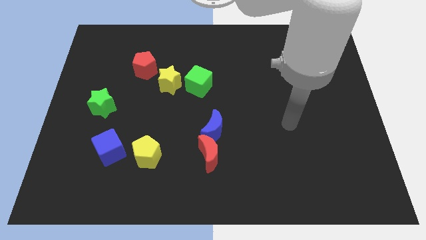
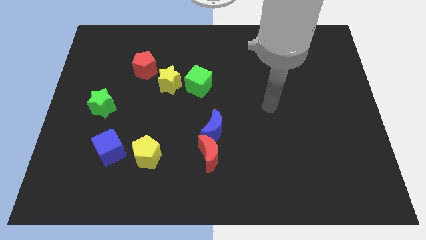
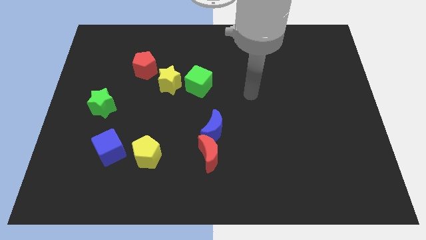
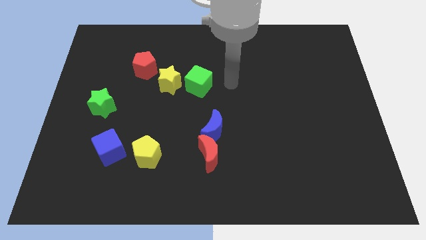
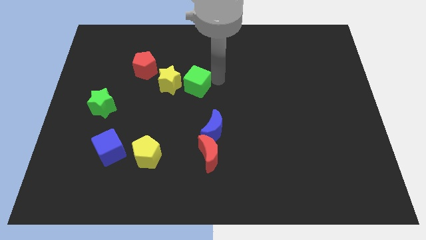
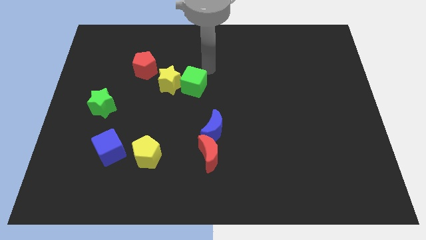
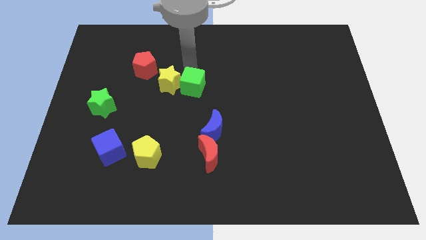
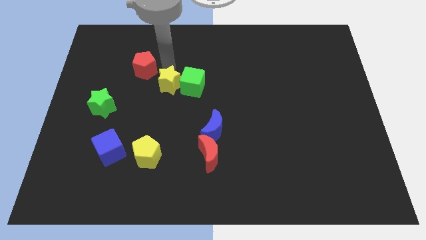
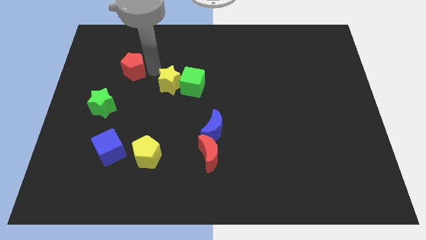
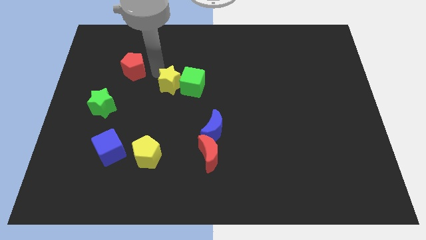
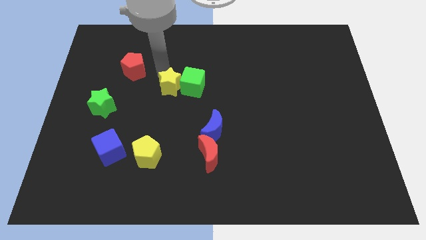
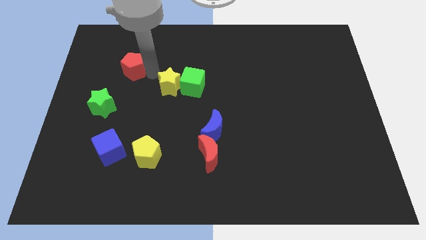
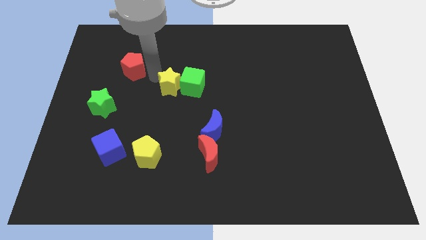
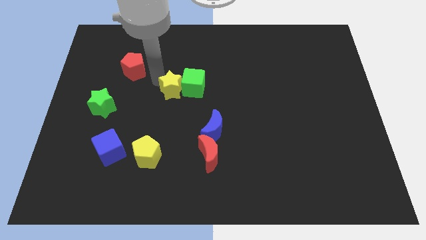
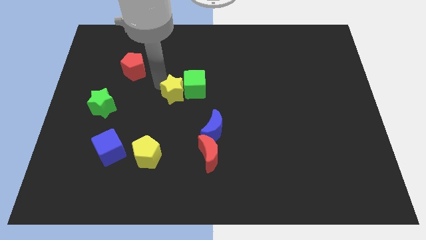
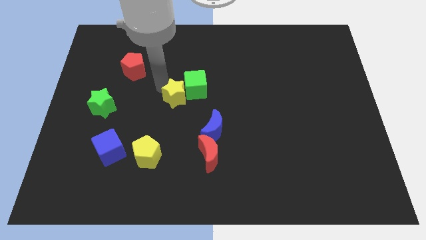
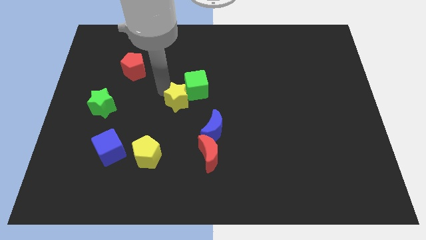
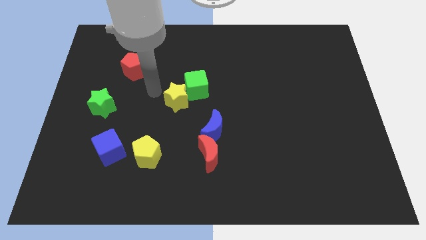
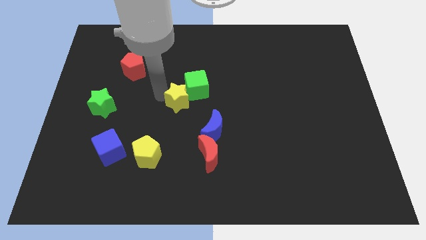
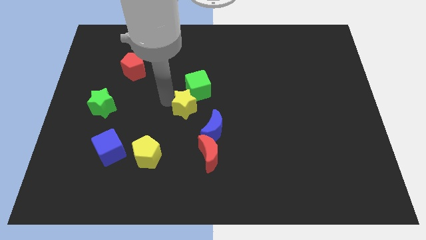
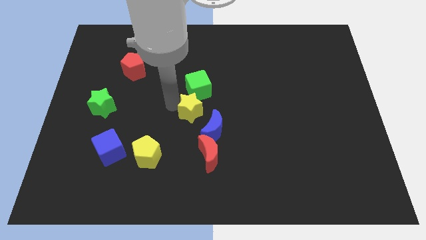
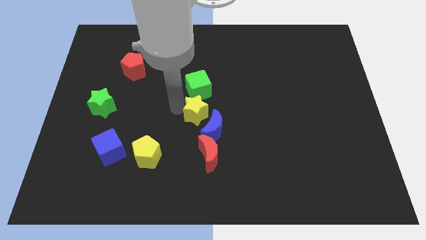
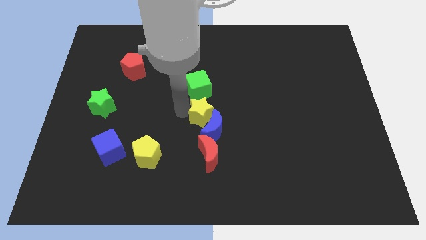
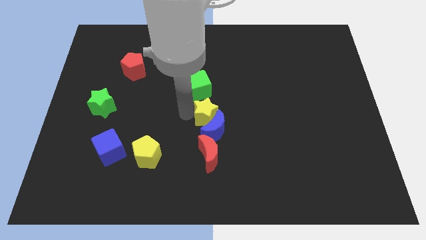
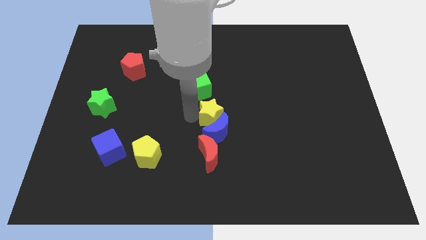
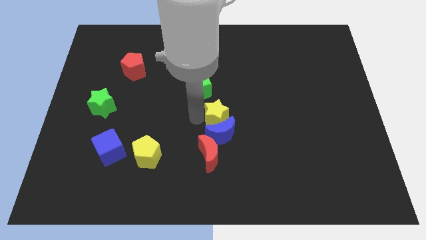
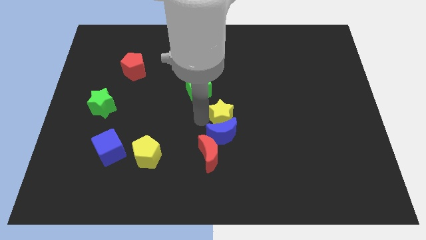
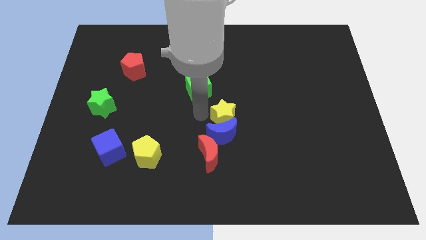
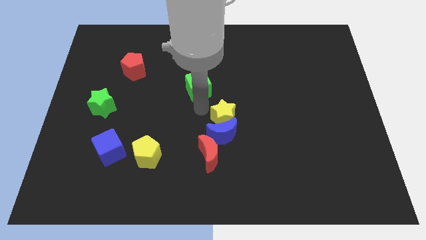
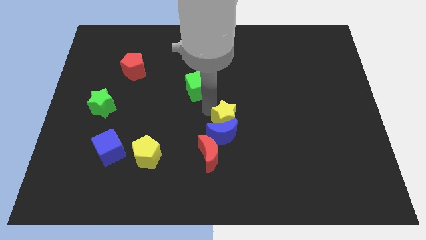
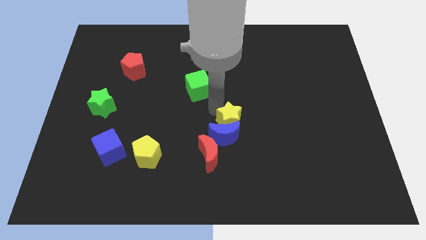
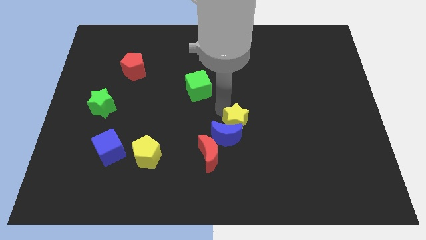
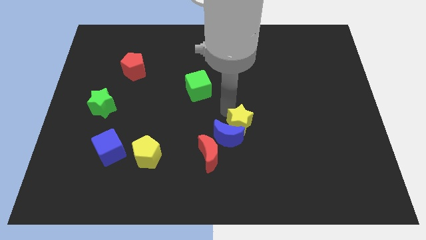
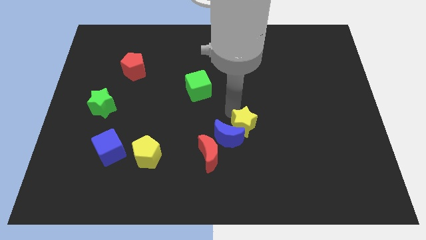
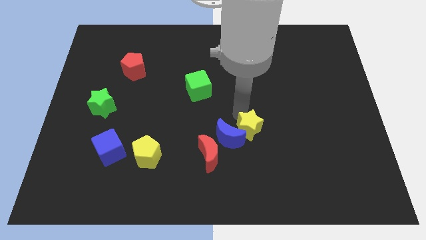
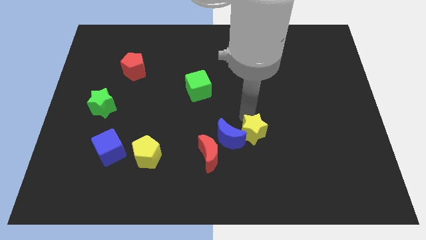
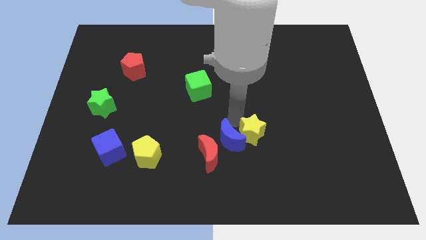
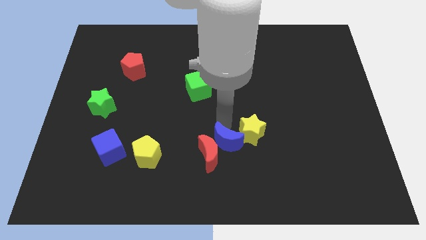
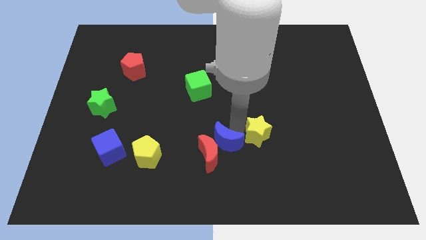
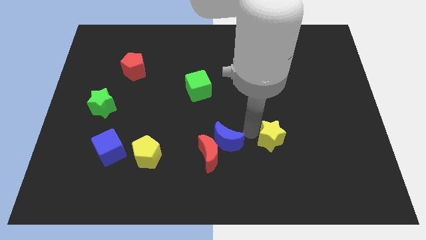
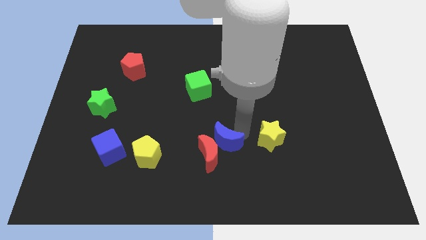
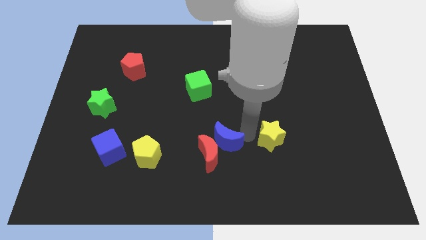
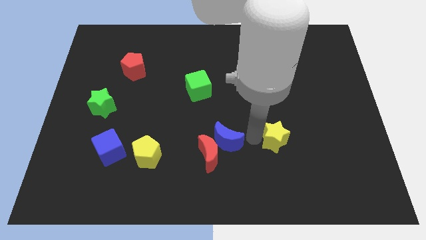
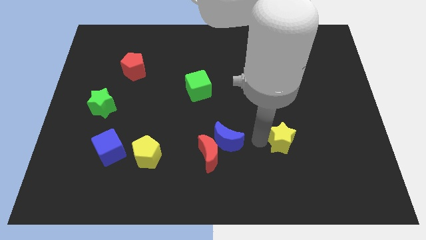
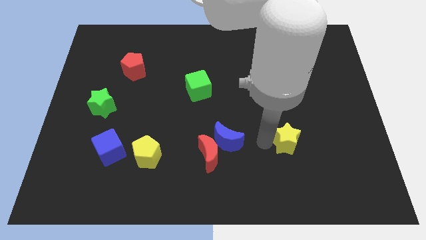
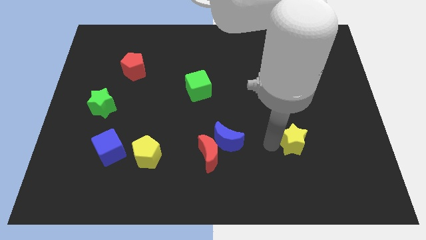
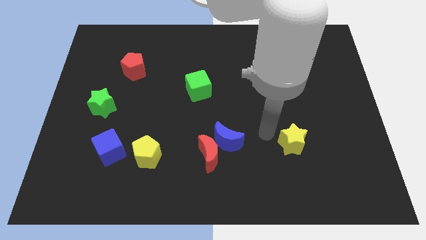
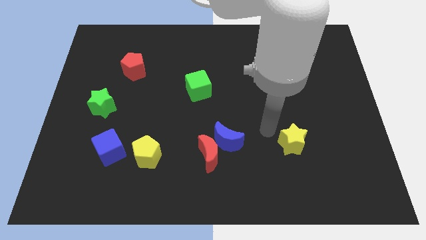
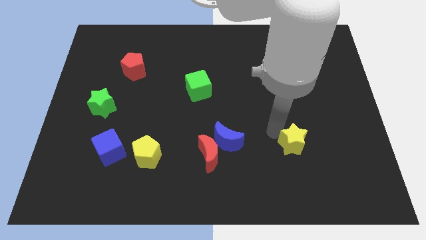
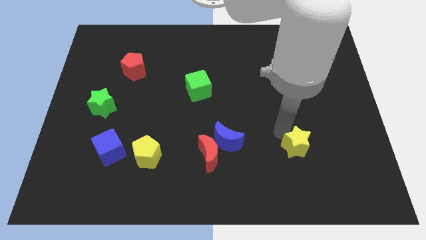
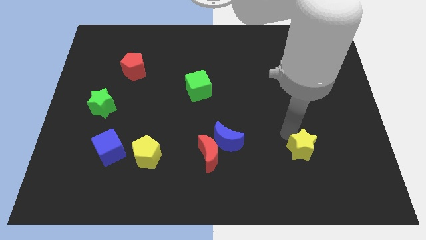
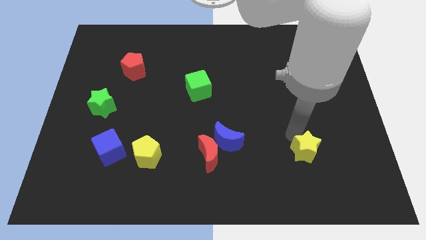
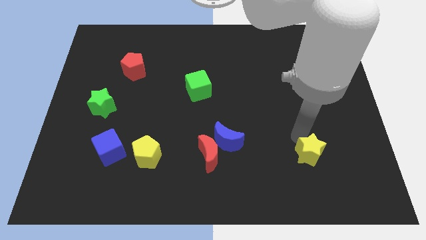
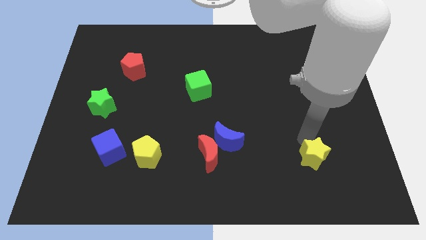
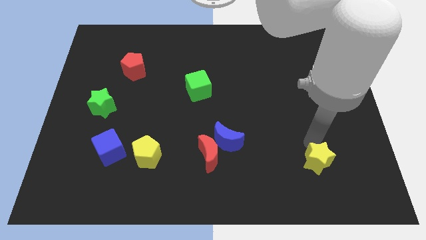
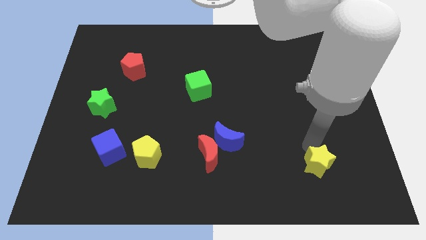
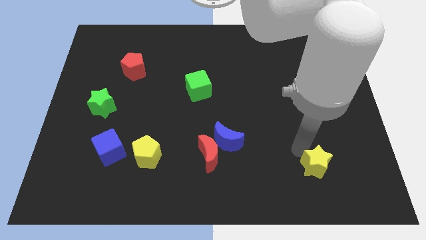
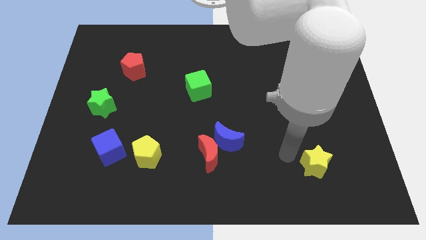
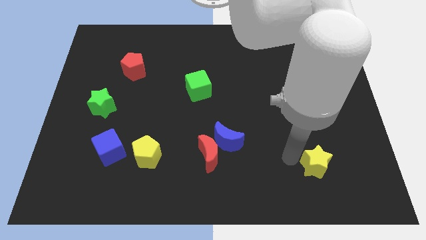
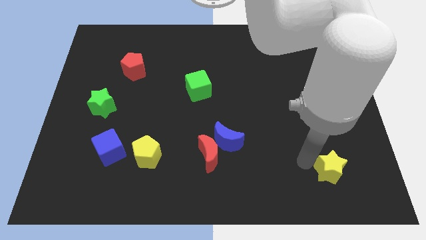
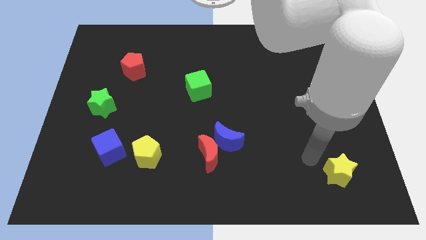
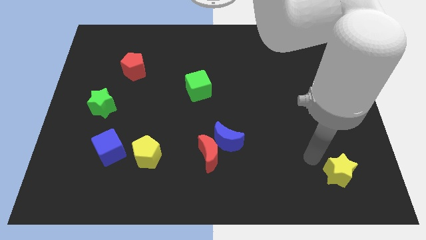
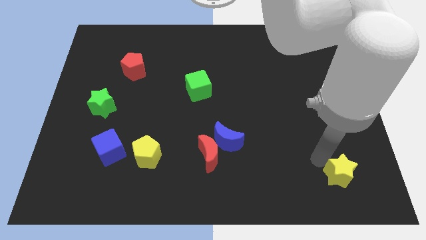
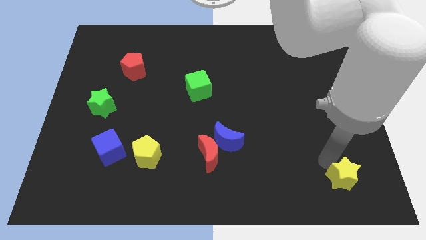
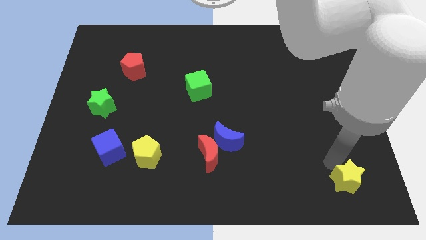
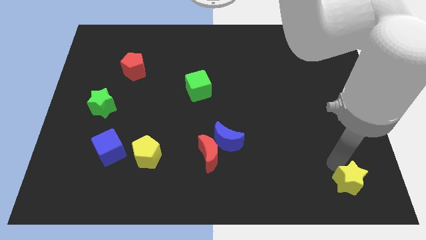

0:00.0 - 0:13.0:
slide the yellow star to the lower right corner

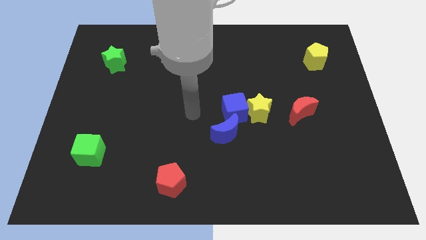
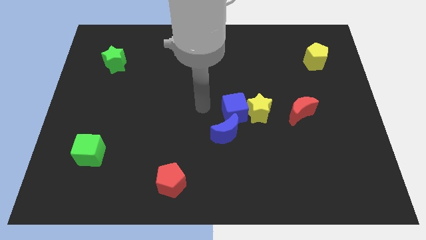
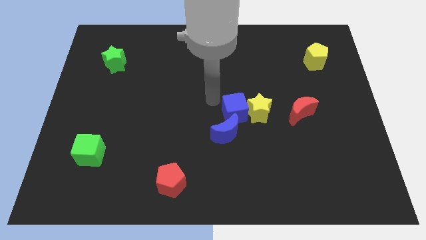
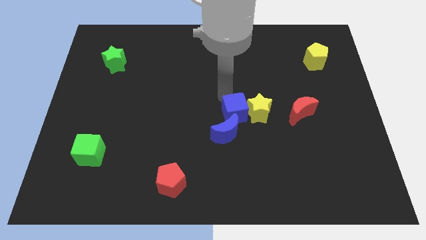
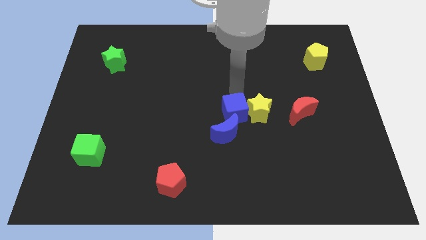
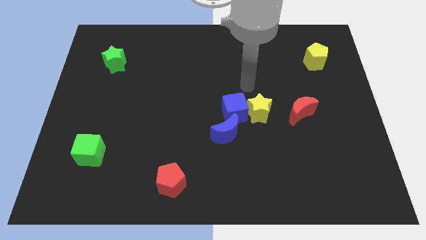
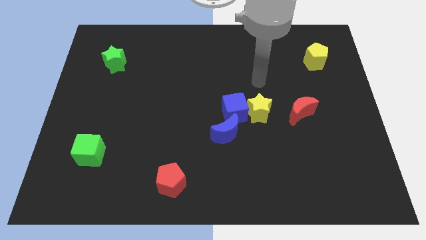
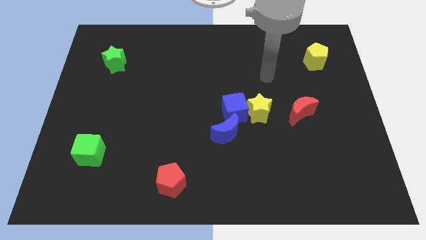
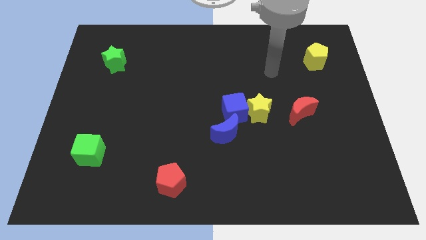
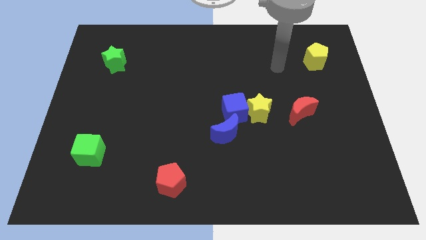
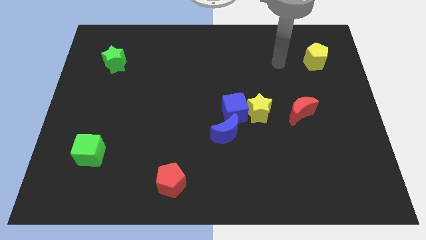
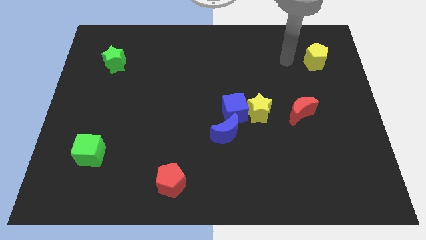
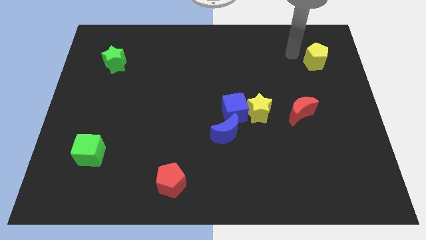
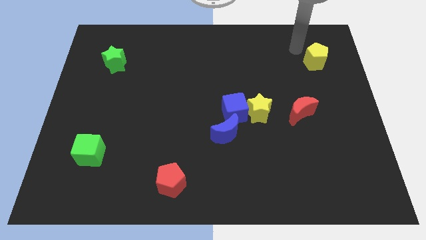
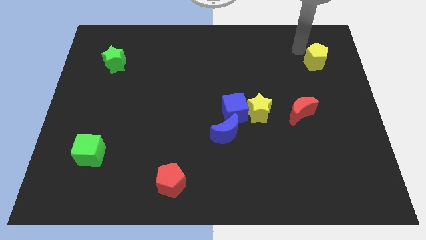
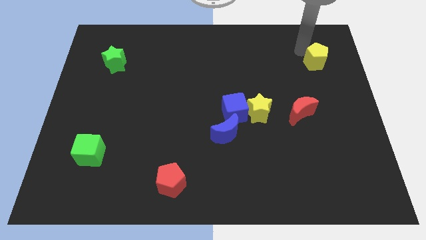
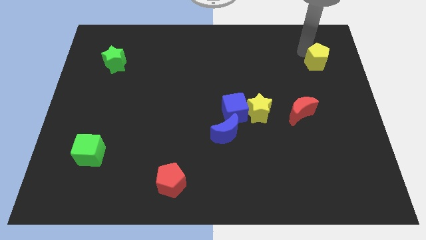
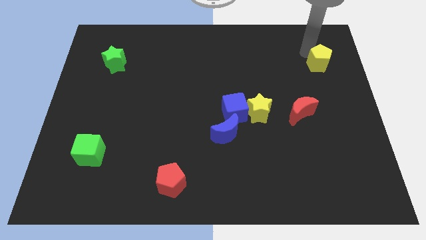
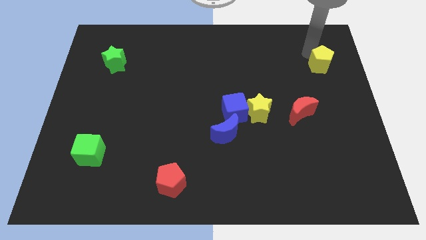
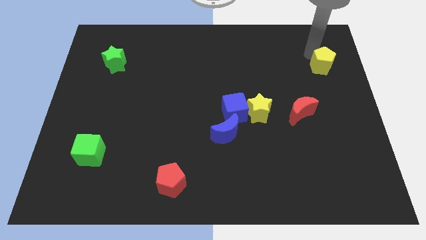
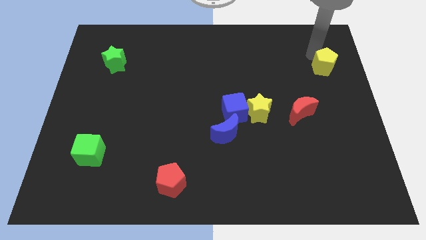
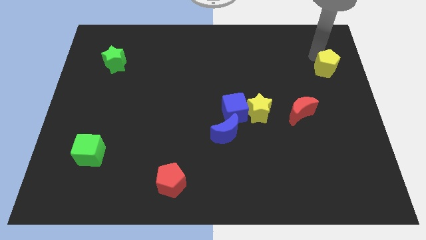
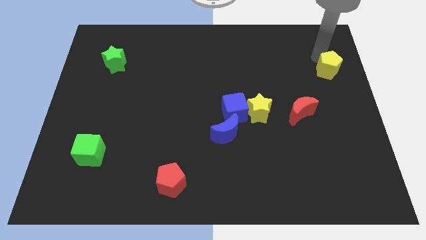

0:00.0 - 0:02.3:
push the yellow pentagon to the right side of the board
